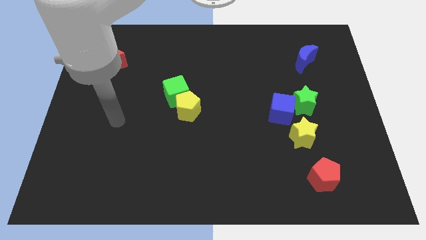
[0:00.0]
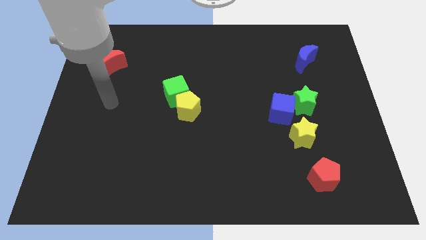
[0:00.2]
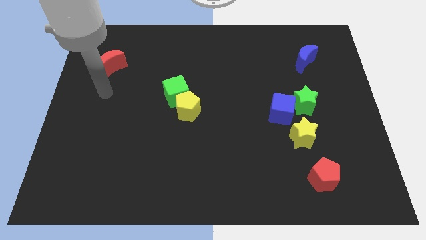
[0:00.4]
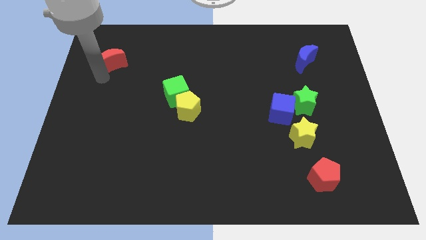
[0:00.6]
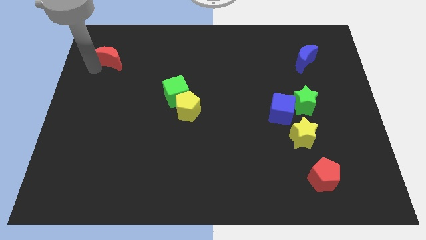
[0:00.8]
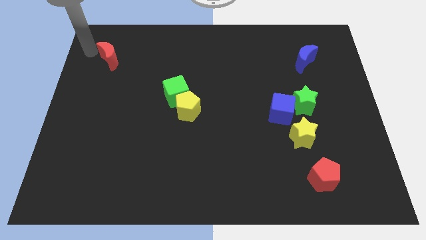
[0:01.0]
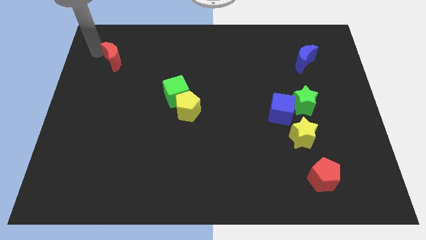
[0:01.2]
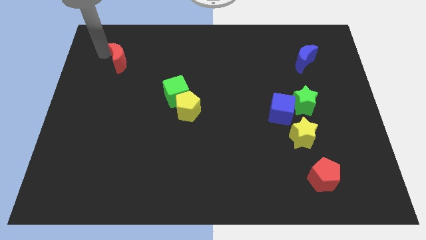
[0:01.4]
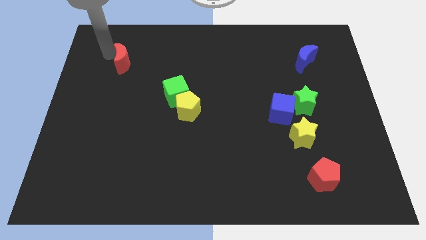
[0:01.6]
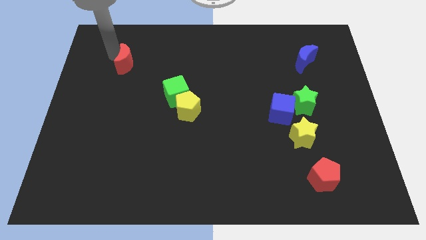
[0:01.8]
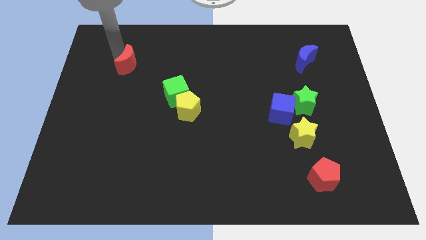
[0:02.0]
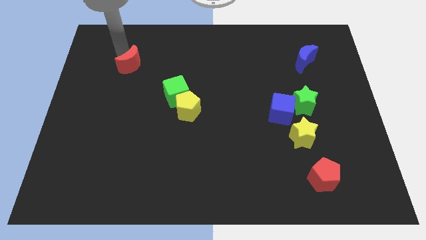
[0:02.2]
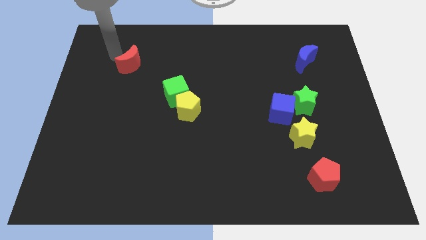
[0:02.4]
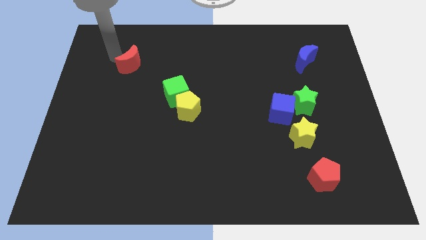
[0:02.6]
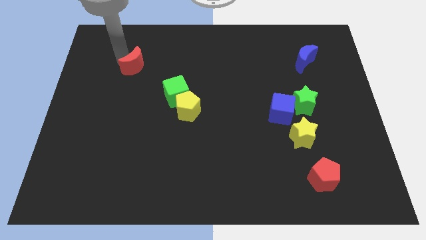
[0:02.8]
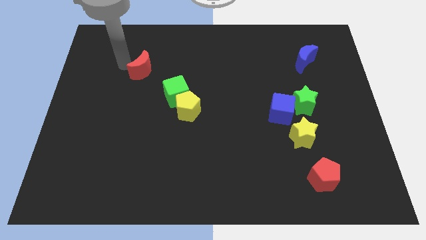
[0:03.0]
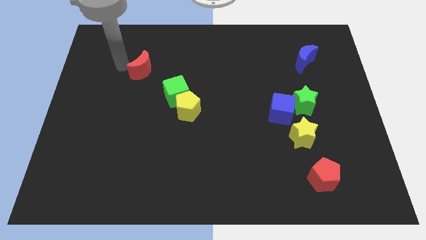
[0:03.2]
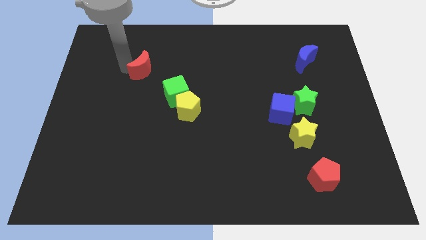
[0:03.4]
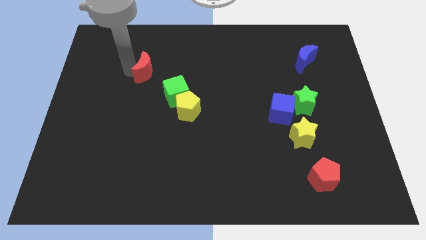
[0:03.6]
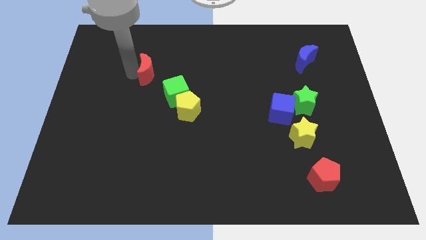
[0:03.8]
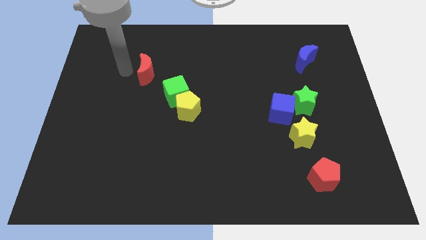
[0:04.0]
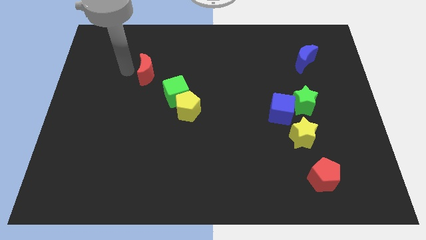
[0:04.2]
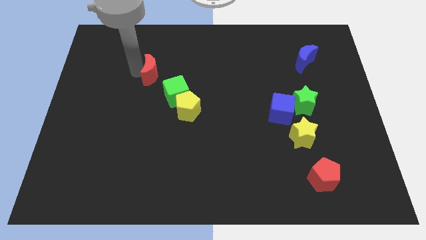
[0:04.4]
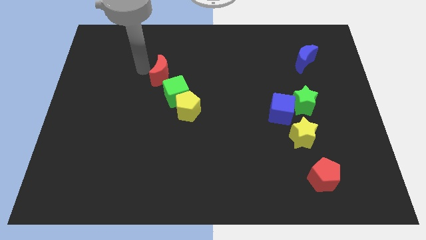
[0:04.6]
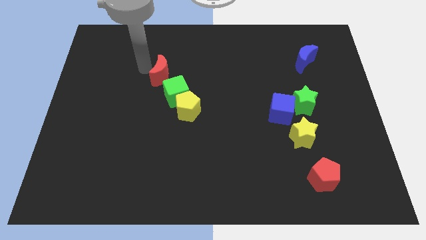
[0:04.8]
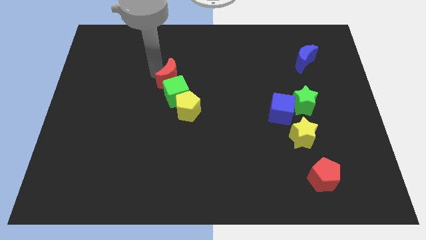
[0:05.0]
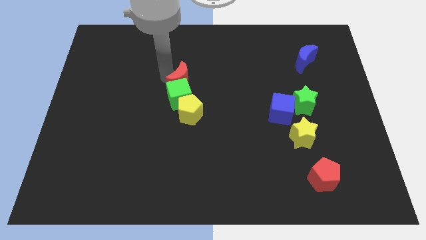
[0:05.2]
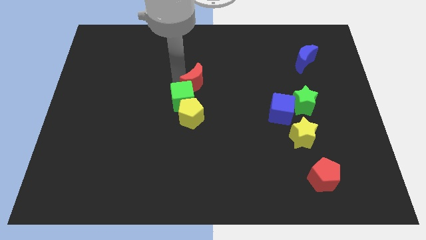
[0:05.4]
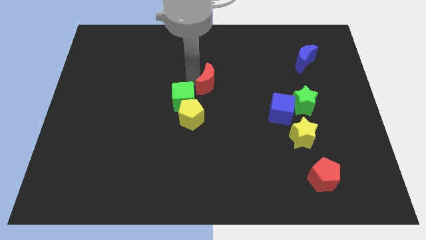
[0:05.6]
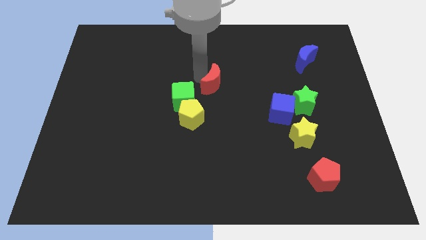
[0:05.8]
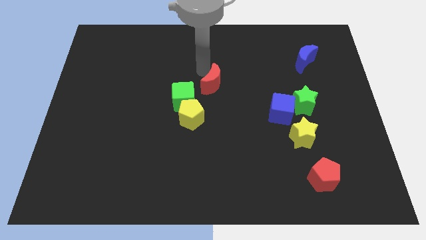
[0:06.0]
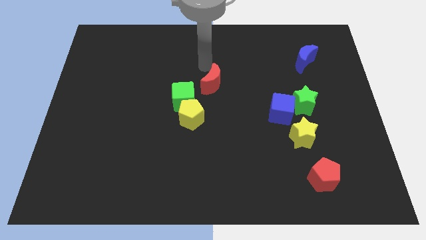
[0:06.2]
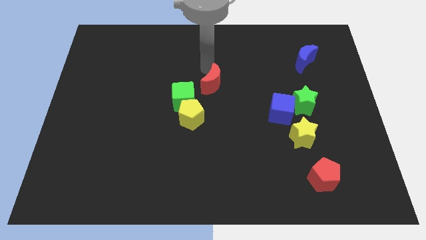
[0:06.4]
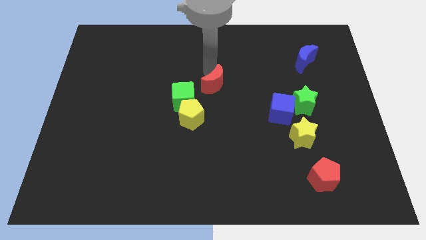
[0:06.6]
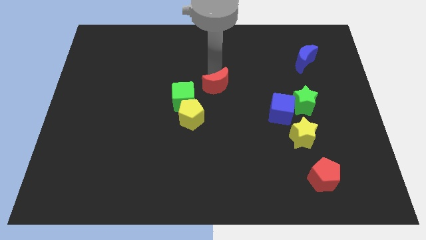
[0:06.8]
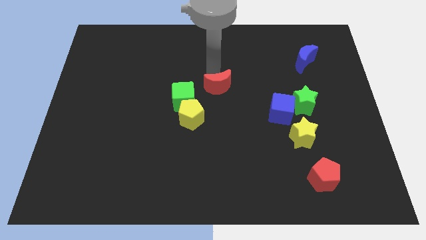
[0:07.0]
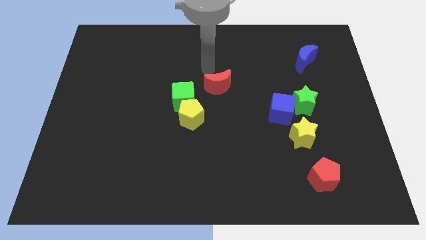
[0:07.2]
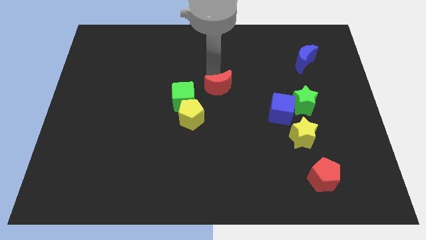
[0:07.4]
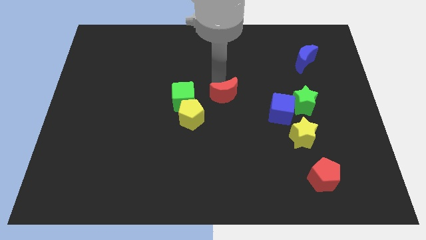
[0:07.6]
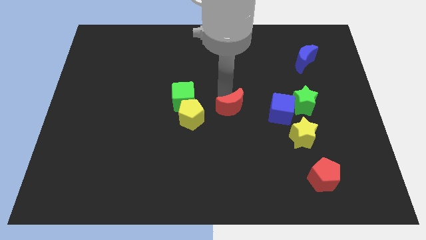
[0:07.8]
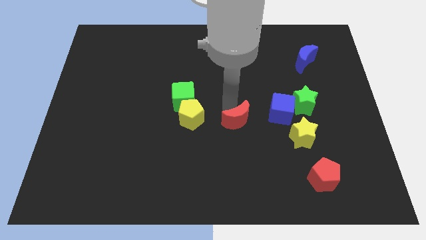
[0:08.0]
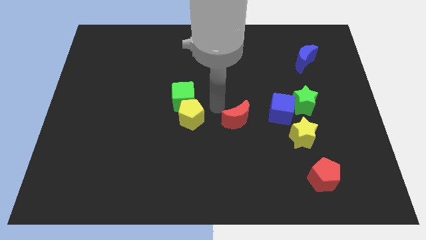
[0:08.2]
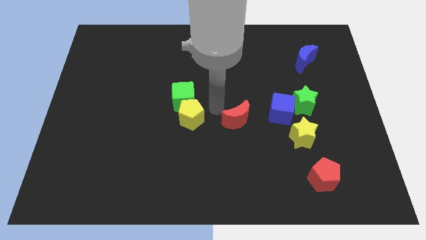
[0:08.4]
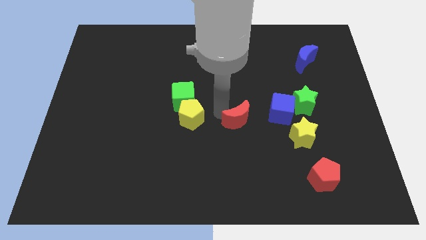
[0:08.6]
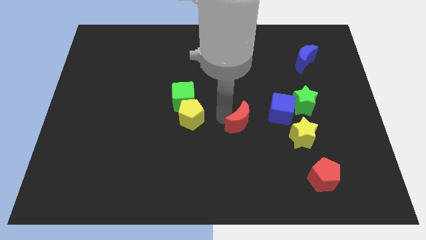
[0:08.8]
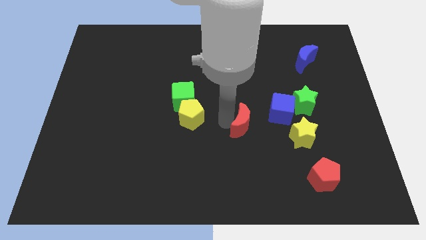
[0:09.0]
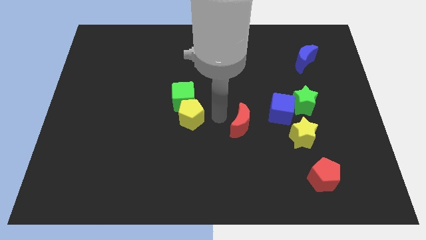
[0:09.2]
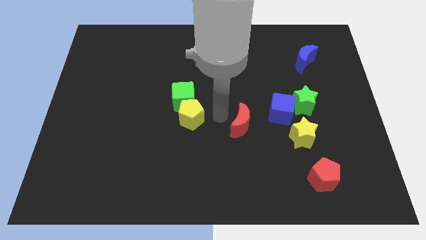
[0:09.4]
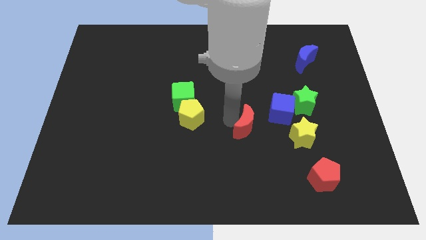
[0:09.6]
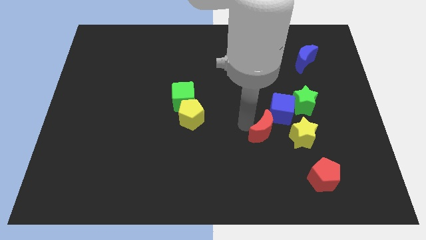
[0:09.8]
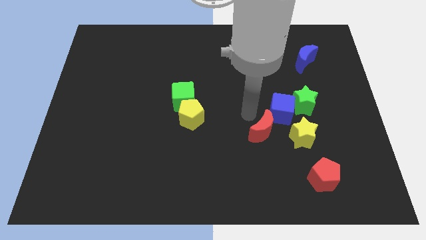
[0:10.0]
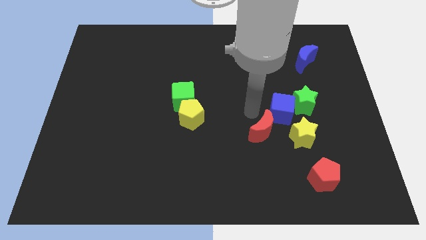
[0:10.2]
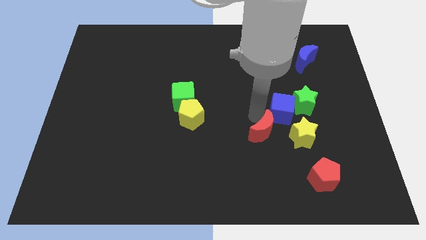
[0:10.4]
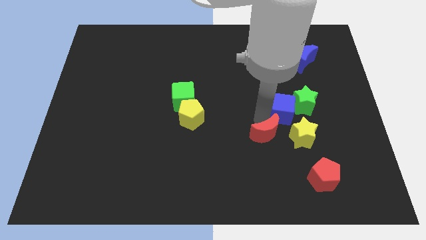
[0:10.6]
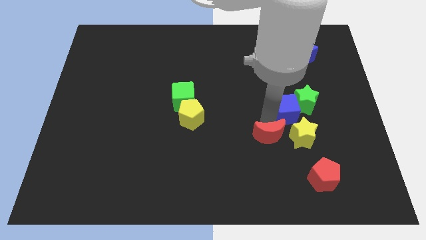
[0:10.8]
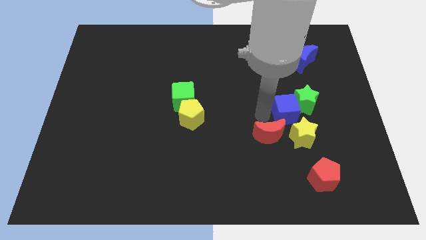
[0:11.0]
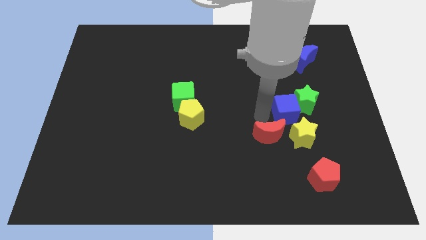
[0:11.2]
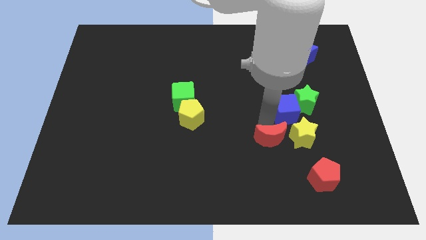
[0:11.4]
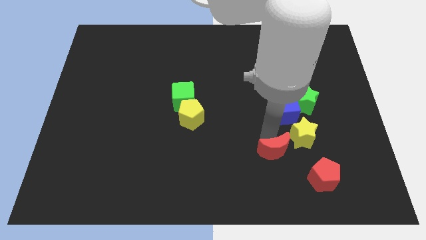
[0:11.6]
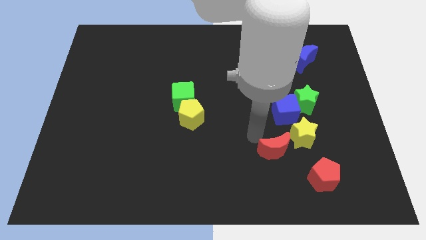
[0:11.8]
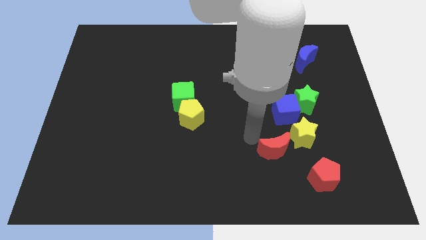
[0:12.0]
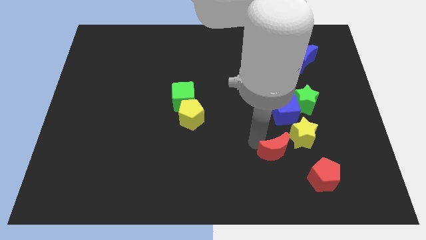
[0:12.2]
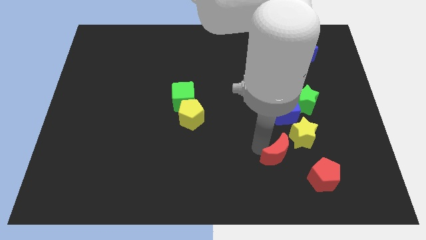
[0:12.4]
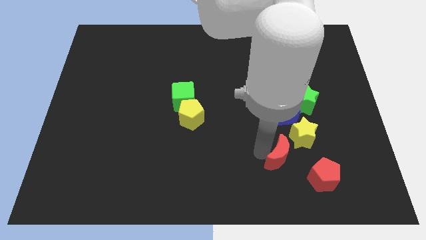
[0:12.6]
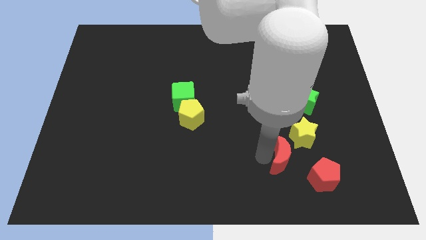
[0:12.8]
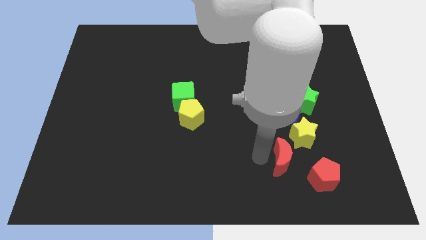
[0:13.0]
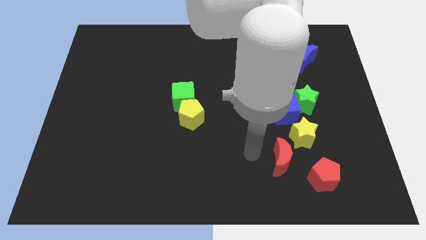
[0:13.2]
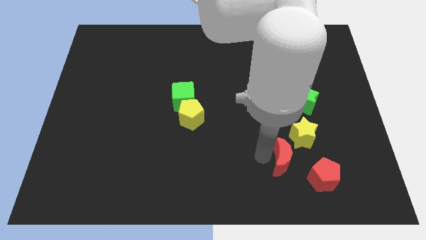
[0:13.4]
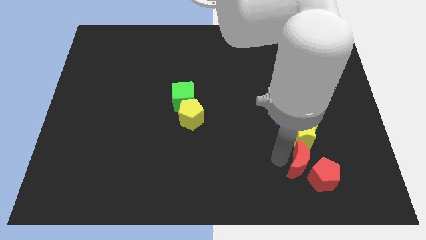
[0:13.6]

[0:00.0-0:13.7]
slide the red moon next to the red pentagon
